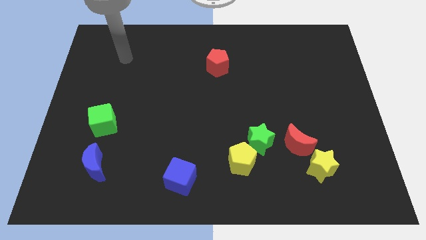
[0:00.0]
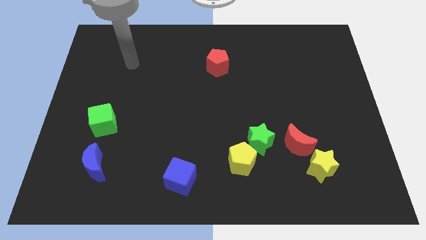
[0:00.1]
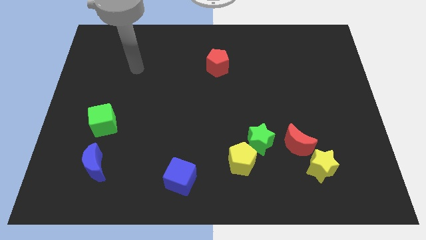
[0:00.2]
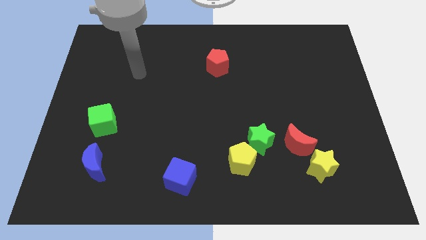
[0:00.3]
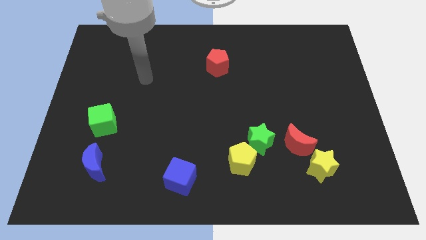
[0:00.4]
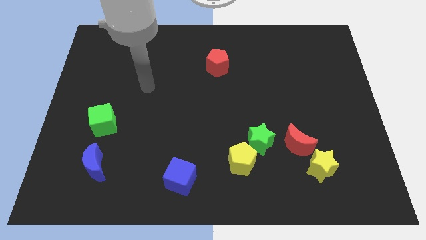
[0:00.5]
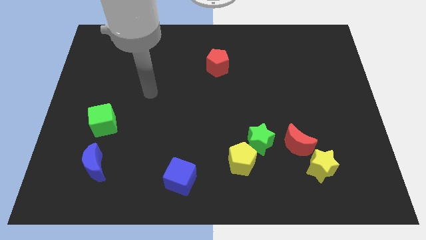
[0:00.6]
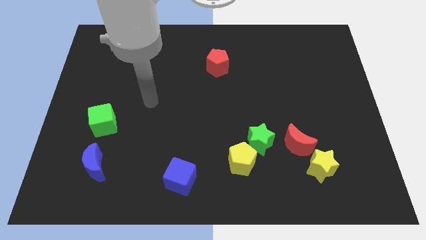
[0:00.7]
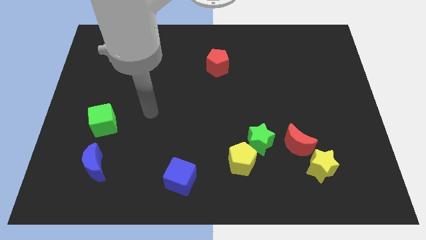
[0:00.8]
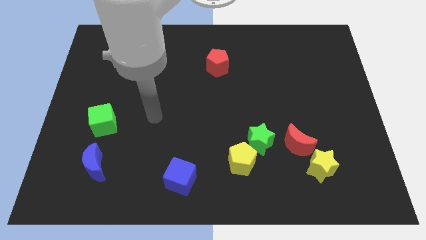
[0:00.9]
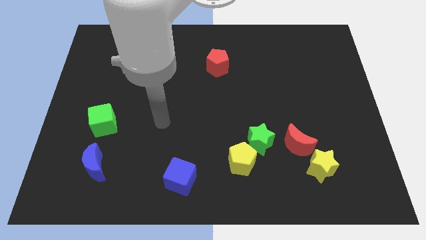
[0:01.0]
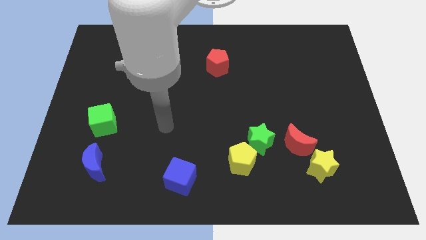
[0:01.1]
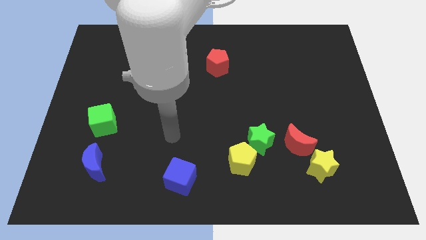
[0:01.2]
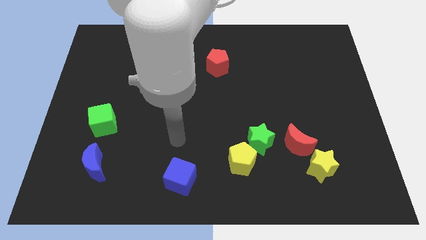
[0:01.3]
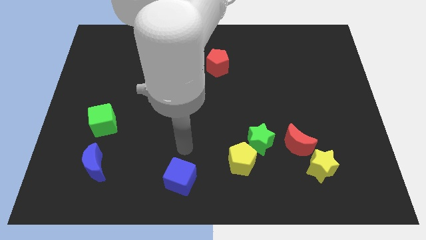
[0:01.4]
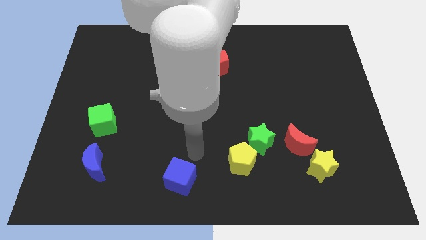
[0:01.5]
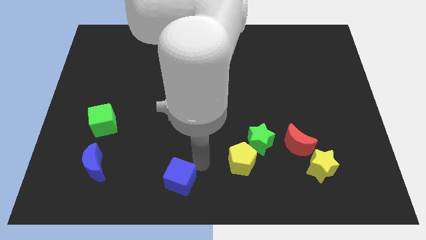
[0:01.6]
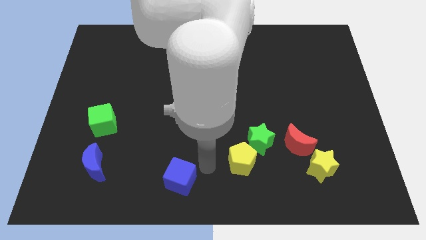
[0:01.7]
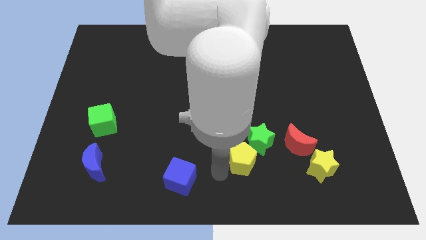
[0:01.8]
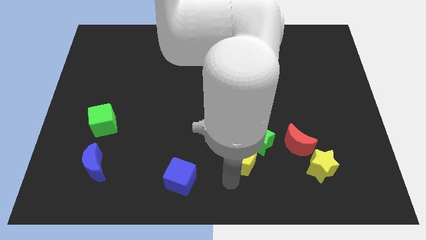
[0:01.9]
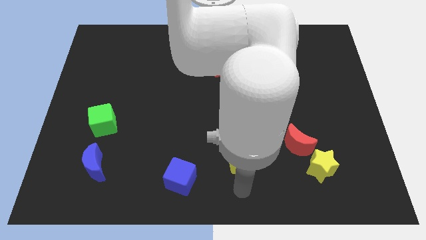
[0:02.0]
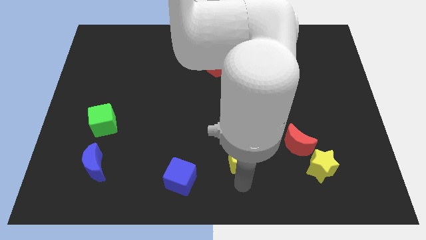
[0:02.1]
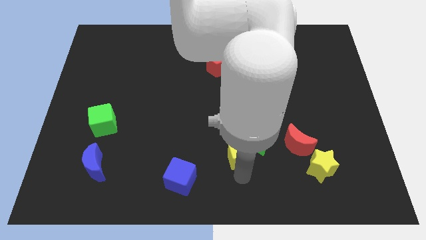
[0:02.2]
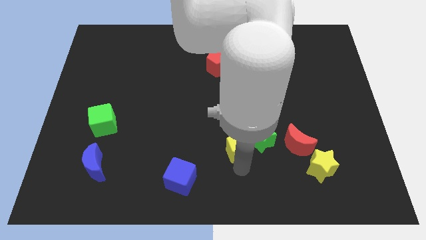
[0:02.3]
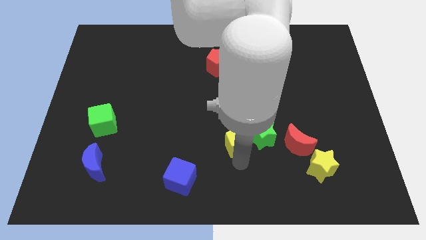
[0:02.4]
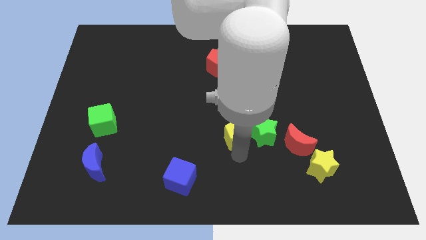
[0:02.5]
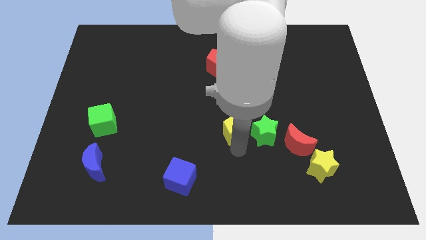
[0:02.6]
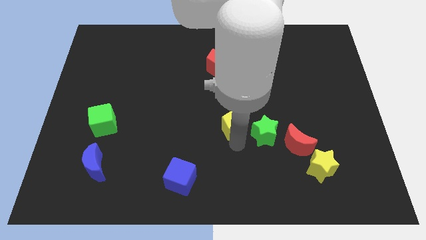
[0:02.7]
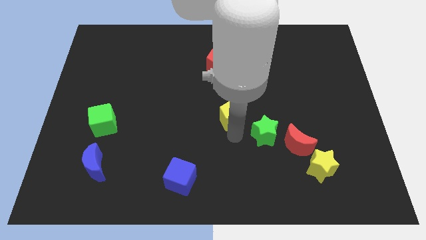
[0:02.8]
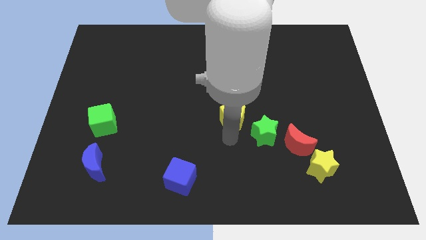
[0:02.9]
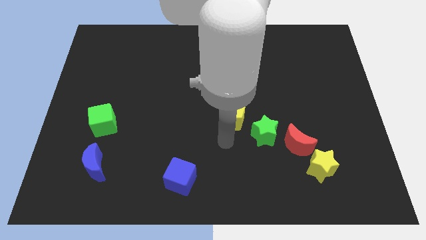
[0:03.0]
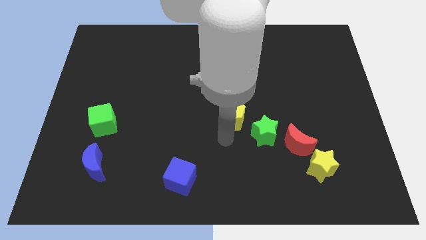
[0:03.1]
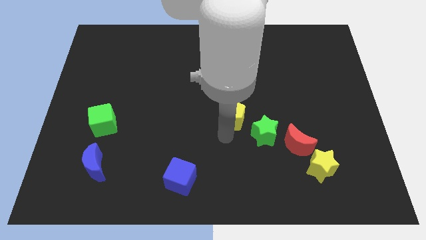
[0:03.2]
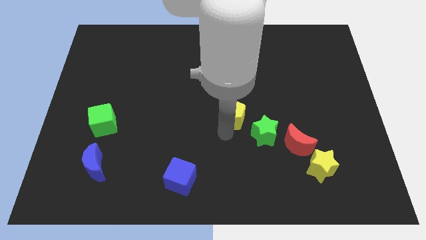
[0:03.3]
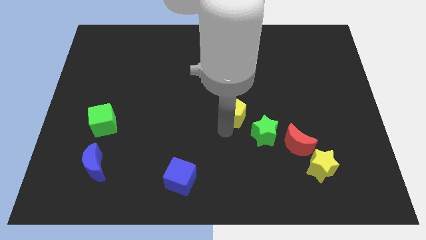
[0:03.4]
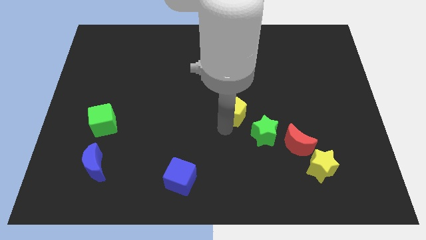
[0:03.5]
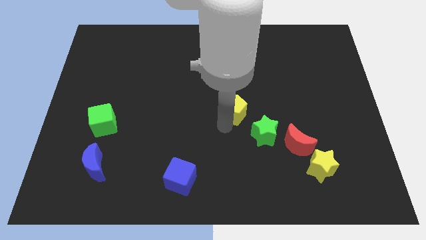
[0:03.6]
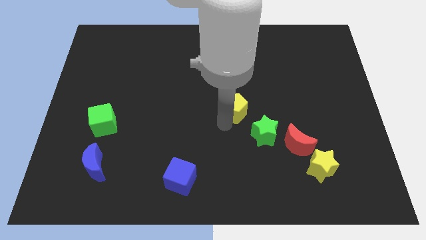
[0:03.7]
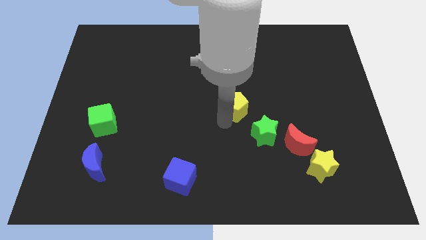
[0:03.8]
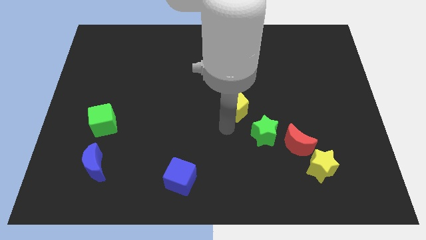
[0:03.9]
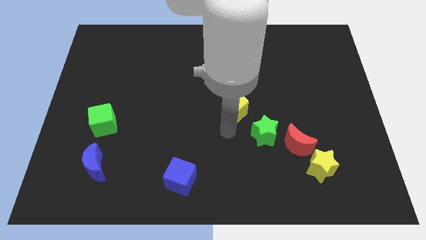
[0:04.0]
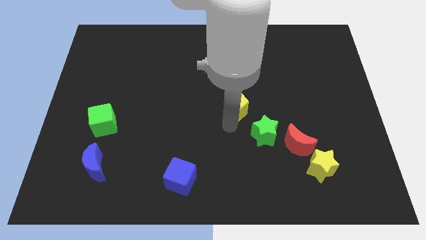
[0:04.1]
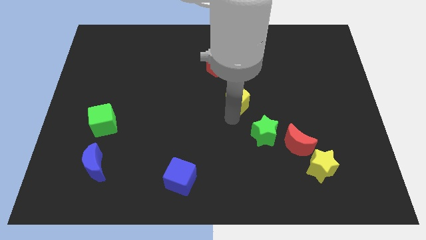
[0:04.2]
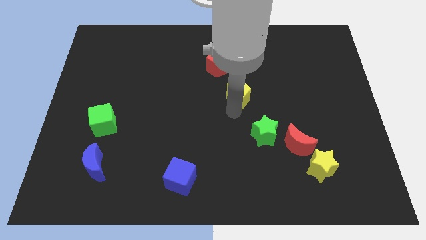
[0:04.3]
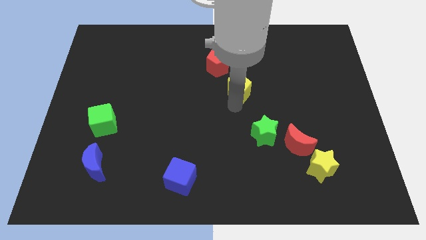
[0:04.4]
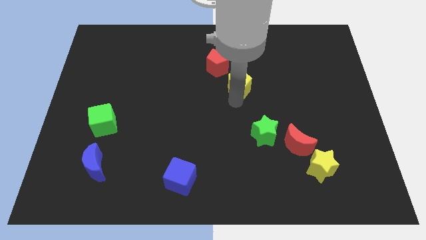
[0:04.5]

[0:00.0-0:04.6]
push the yellow pentagon up

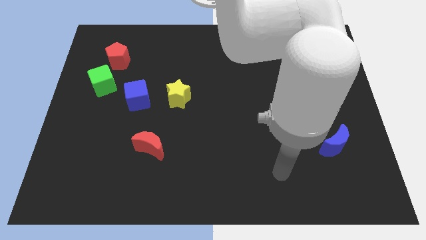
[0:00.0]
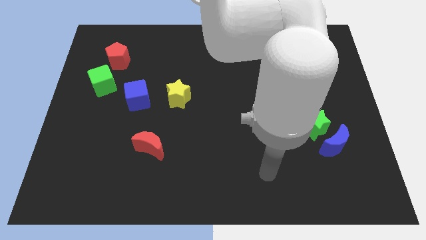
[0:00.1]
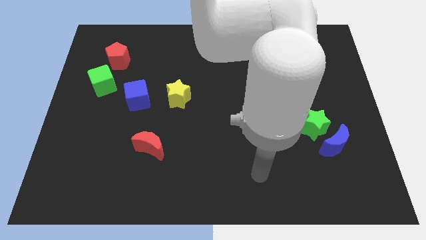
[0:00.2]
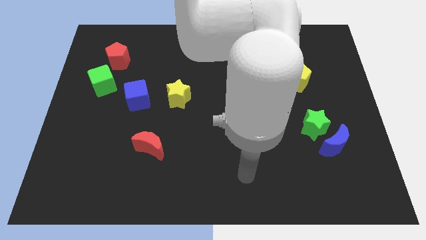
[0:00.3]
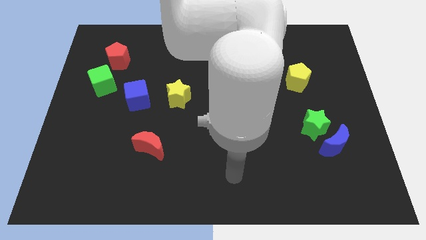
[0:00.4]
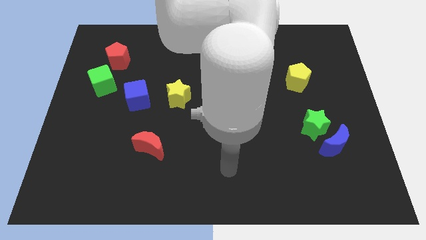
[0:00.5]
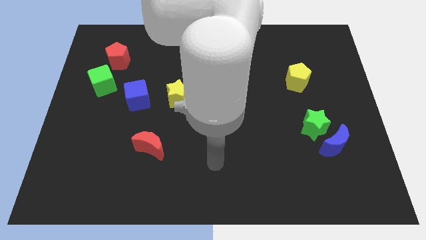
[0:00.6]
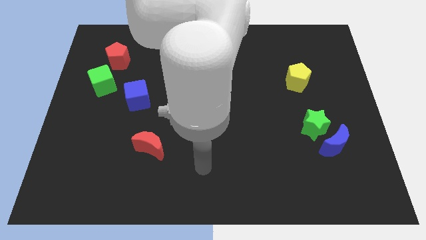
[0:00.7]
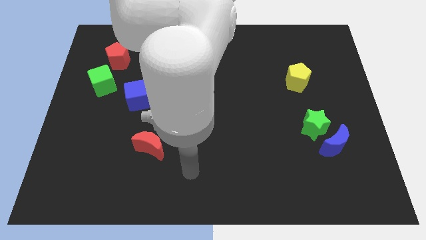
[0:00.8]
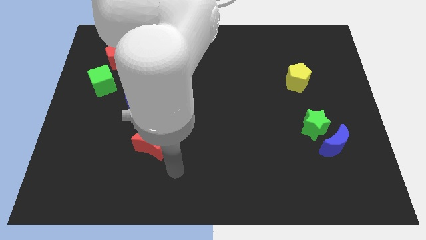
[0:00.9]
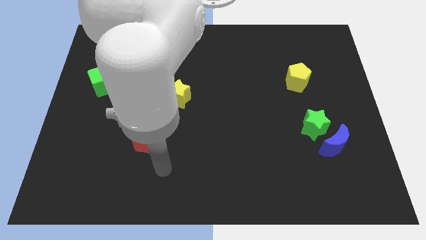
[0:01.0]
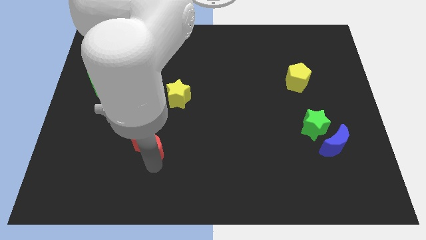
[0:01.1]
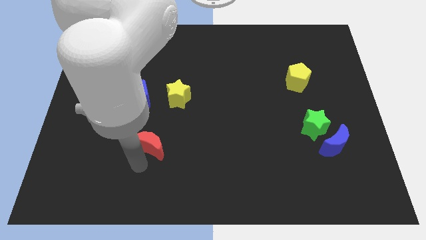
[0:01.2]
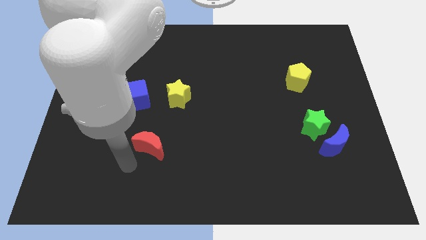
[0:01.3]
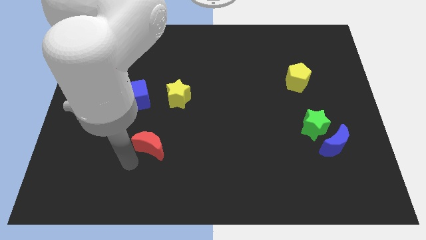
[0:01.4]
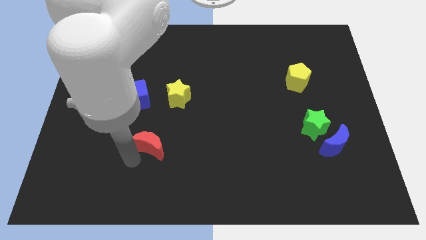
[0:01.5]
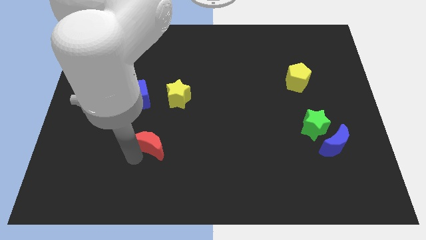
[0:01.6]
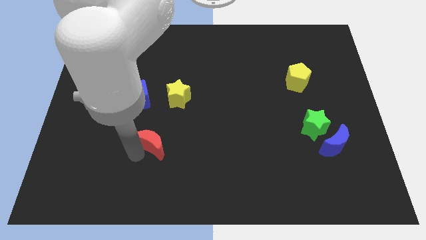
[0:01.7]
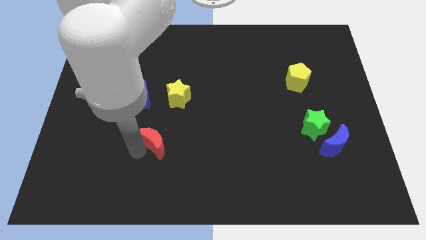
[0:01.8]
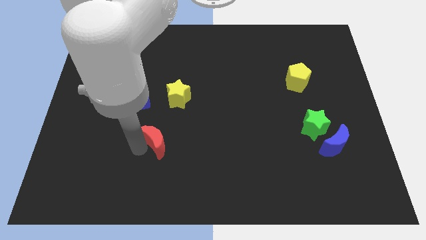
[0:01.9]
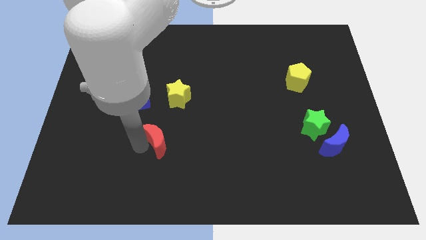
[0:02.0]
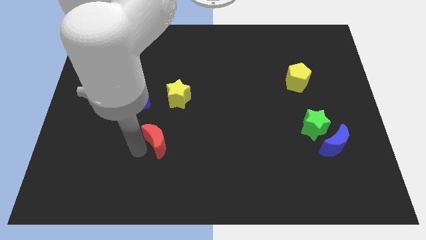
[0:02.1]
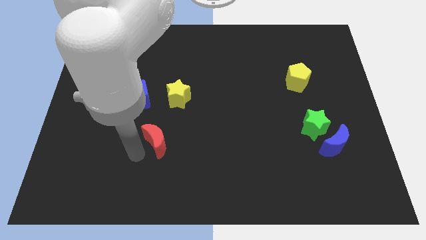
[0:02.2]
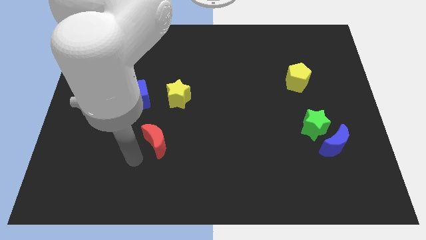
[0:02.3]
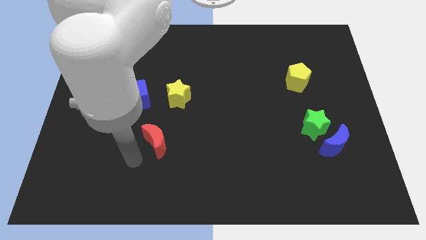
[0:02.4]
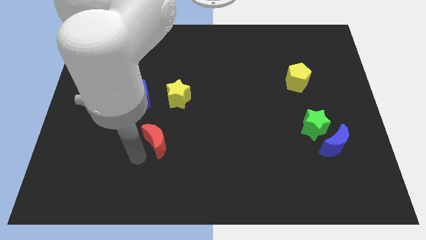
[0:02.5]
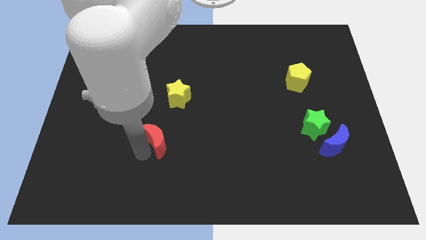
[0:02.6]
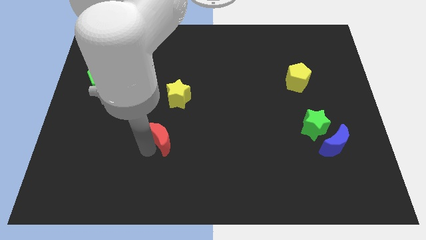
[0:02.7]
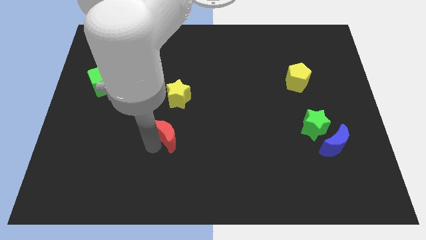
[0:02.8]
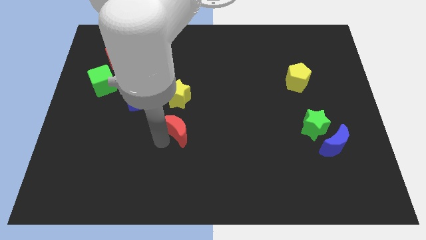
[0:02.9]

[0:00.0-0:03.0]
slightly push the red moon diagonally upwards and to the right

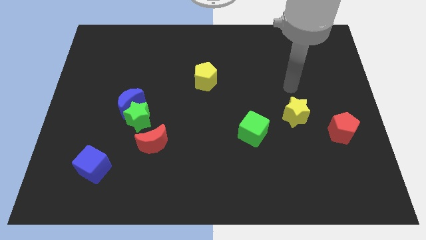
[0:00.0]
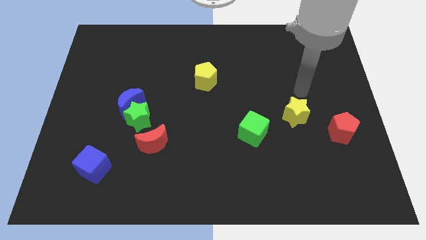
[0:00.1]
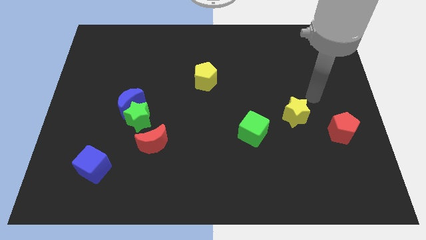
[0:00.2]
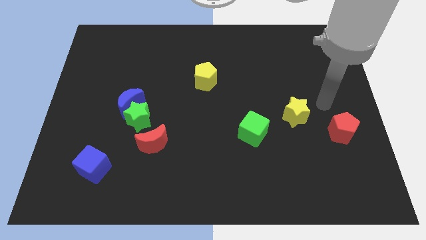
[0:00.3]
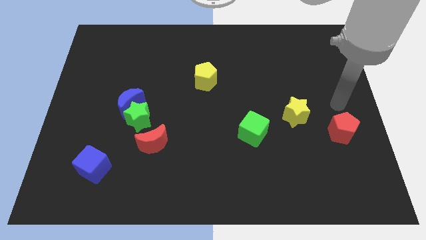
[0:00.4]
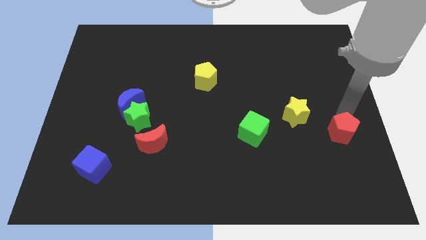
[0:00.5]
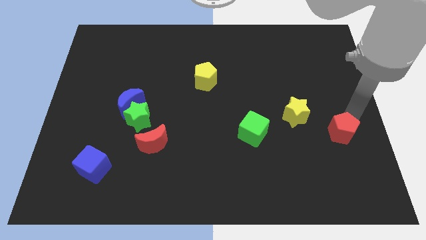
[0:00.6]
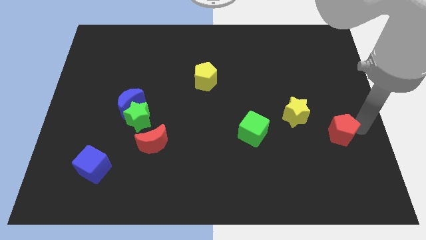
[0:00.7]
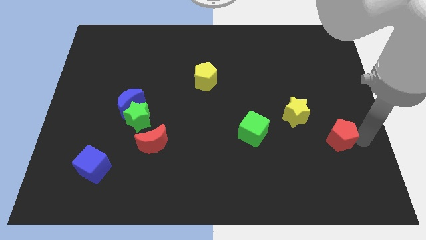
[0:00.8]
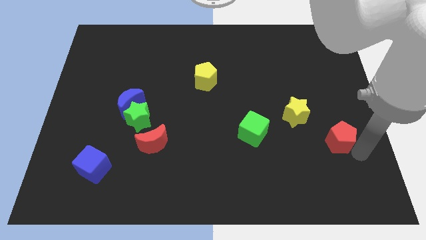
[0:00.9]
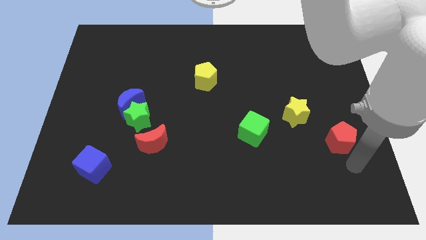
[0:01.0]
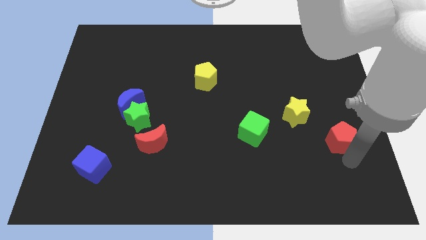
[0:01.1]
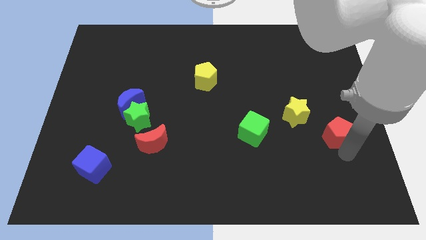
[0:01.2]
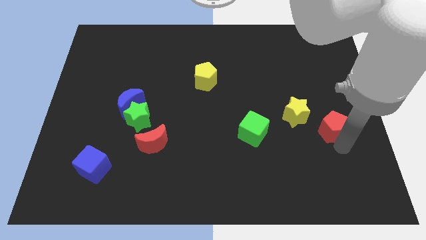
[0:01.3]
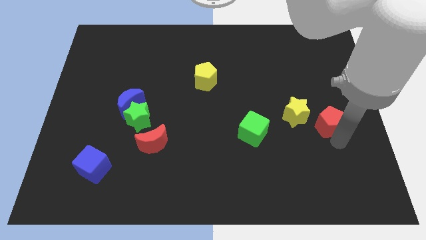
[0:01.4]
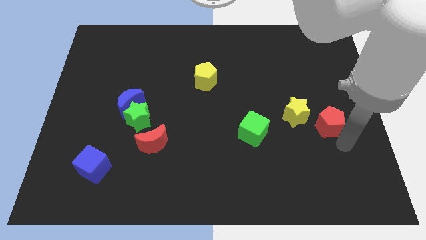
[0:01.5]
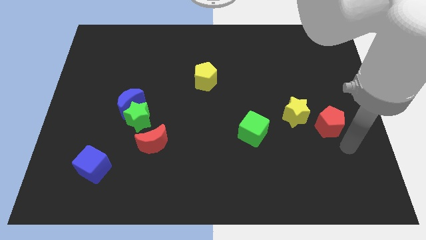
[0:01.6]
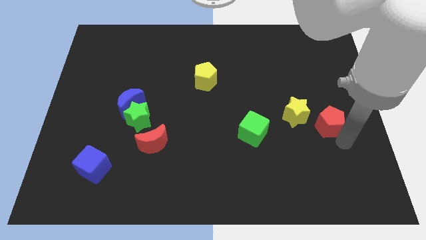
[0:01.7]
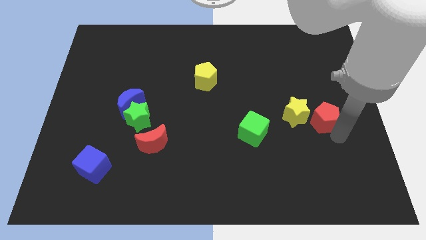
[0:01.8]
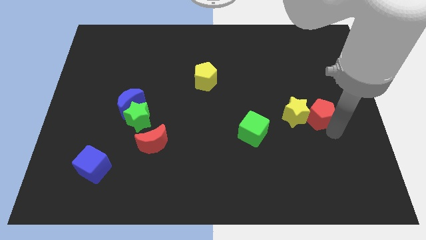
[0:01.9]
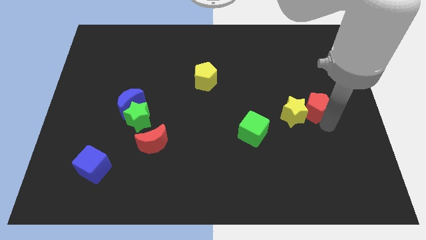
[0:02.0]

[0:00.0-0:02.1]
slightly push the red pentagon up and left
